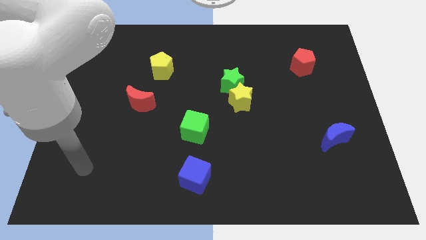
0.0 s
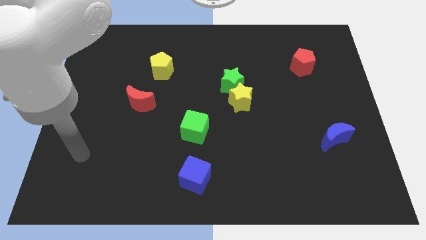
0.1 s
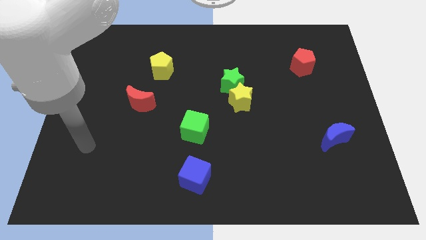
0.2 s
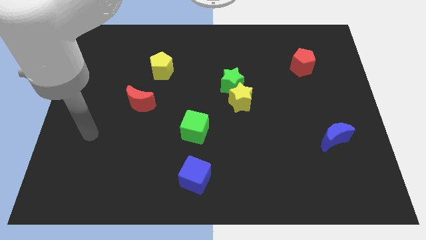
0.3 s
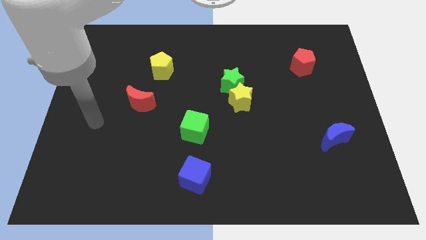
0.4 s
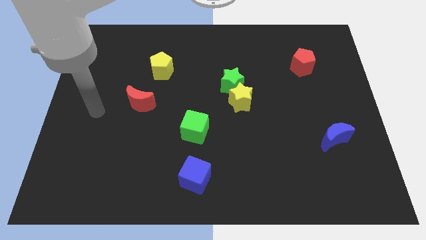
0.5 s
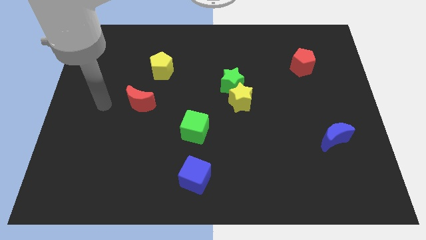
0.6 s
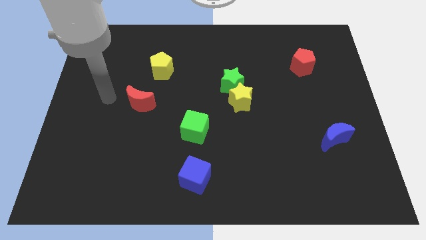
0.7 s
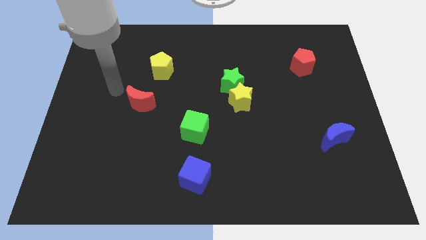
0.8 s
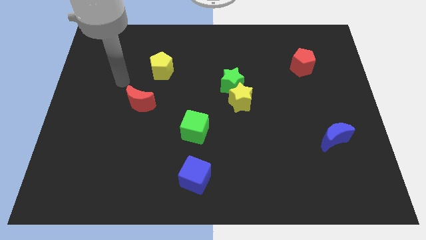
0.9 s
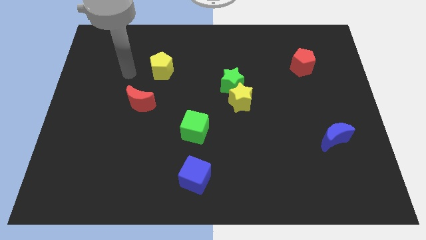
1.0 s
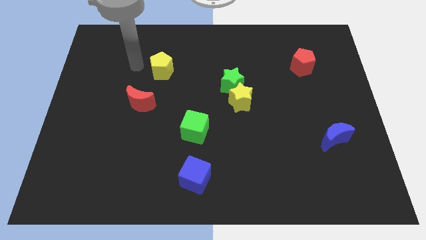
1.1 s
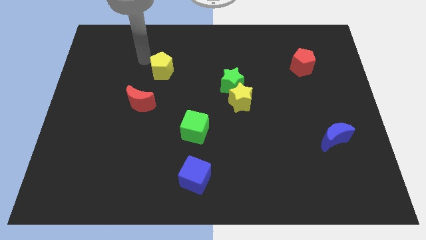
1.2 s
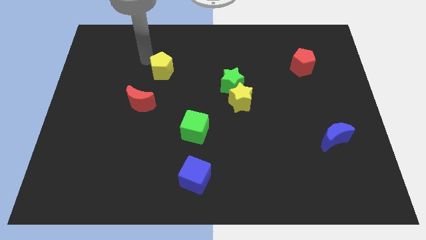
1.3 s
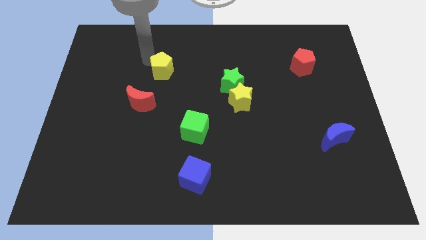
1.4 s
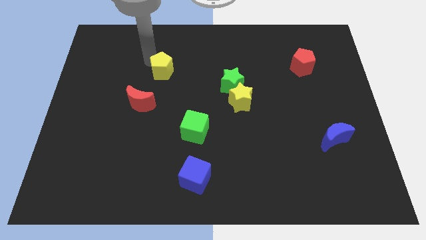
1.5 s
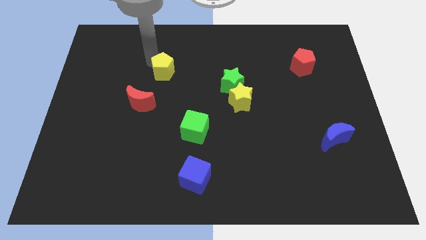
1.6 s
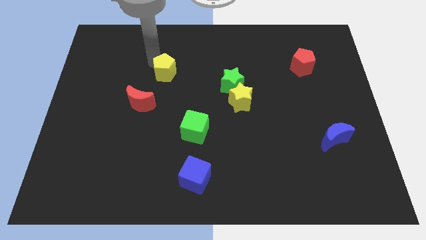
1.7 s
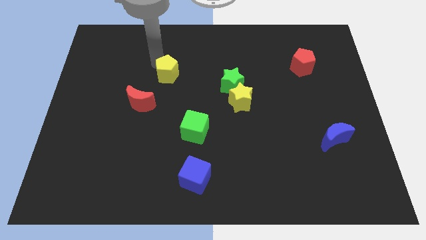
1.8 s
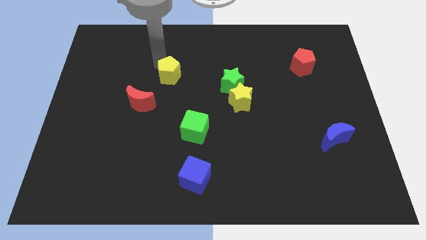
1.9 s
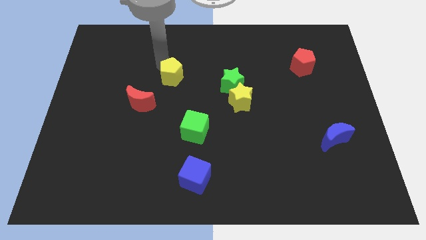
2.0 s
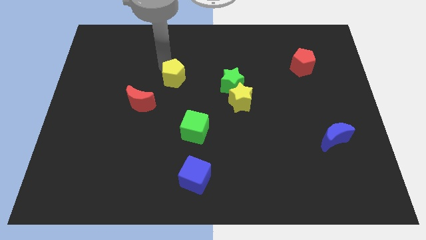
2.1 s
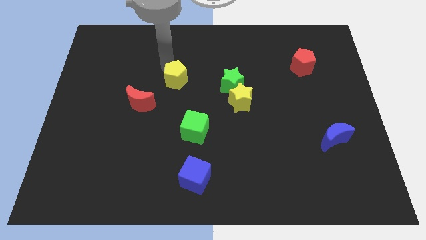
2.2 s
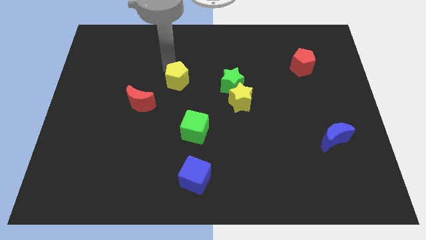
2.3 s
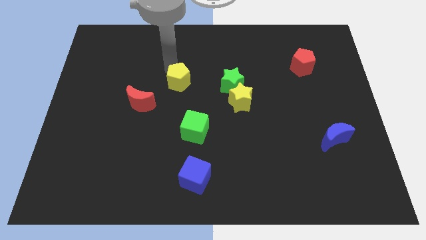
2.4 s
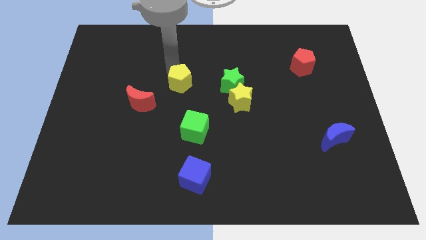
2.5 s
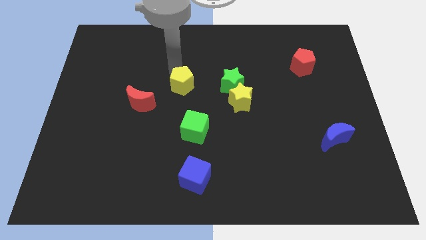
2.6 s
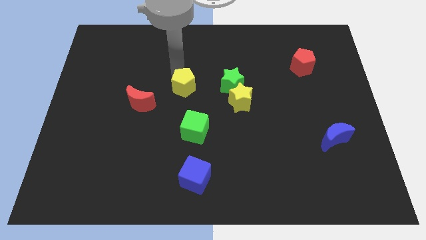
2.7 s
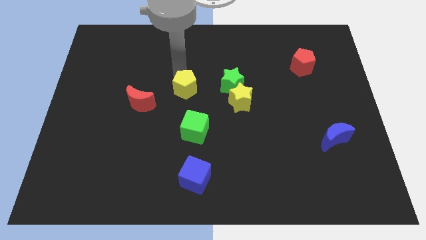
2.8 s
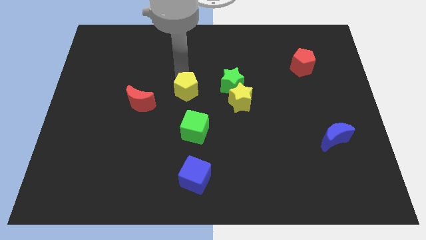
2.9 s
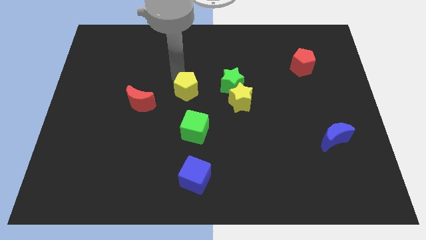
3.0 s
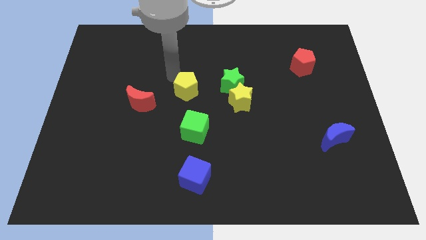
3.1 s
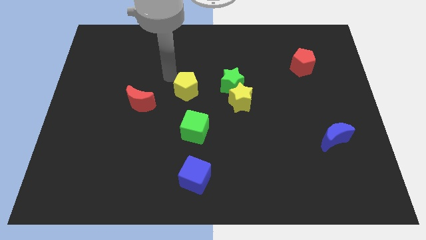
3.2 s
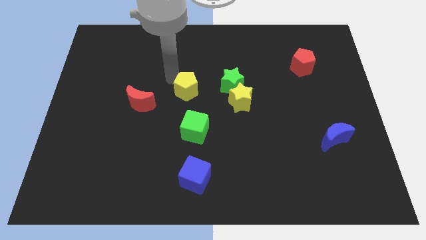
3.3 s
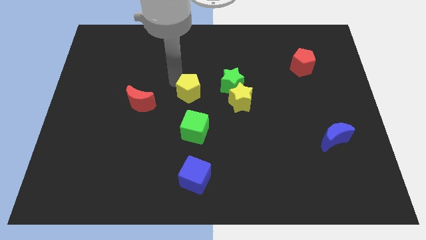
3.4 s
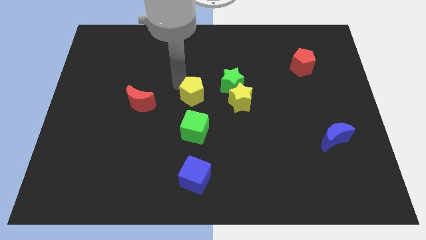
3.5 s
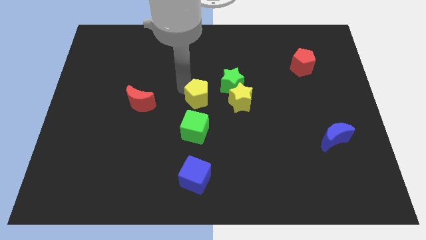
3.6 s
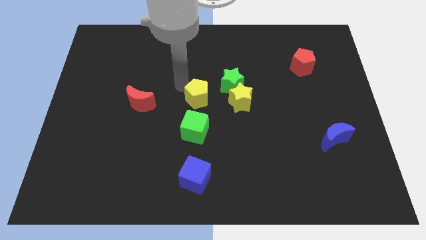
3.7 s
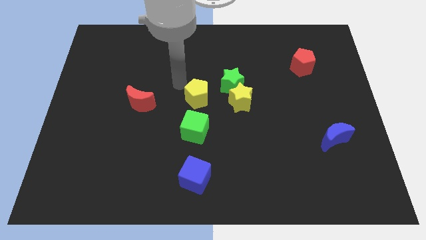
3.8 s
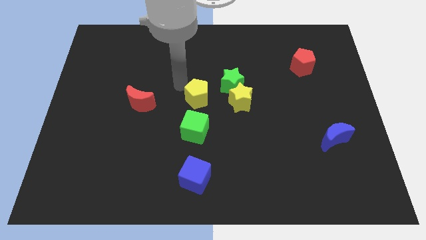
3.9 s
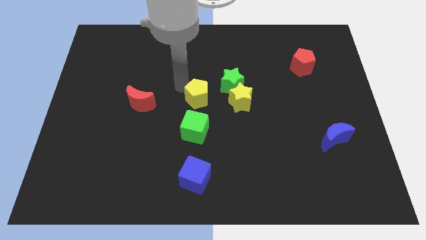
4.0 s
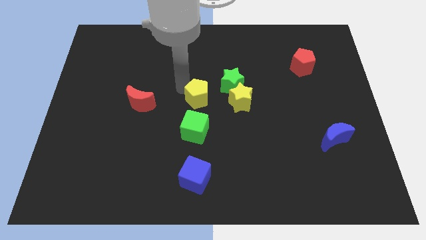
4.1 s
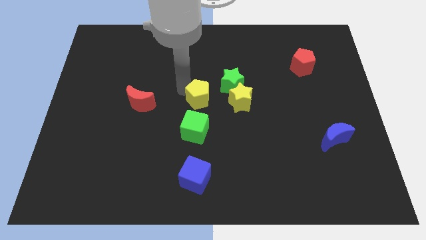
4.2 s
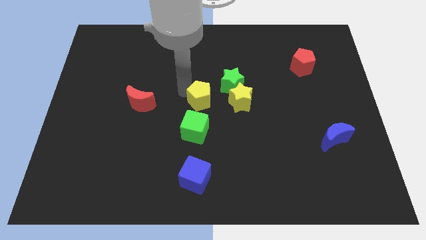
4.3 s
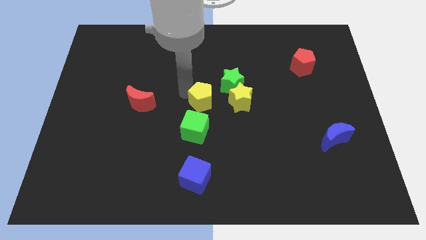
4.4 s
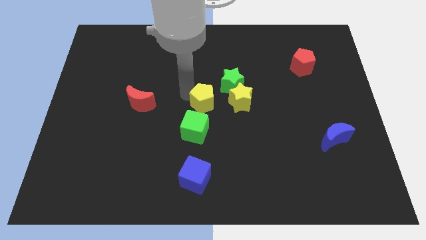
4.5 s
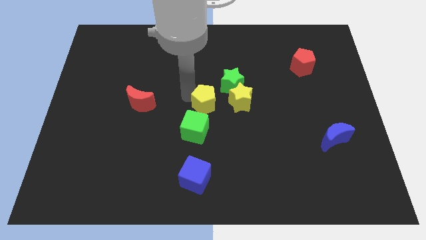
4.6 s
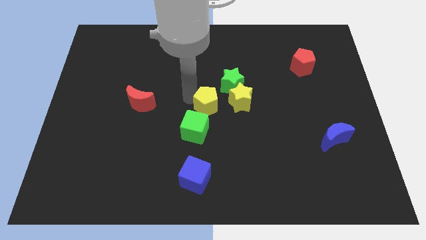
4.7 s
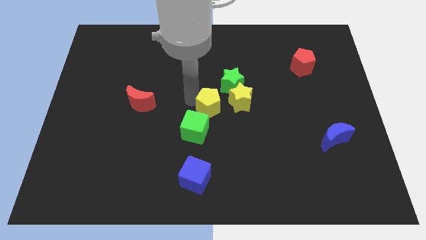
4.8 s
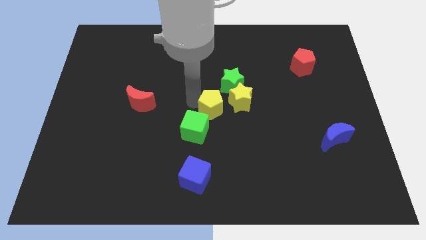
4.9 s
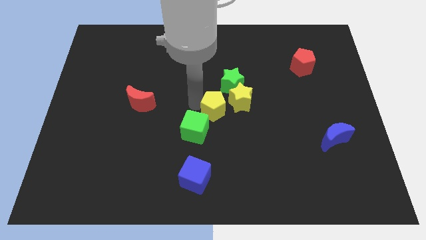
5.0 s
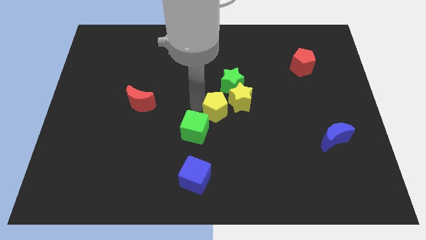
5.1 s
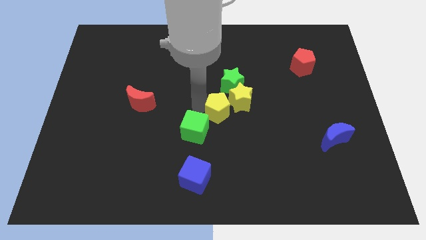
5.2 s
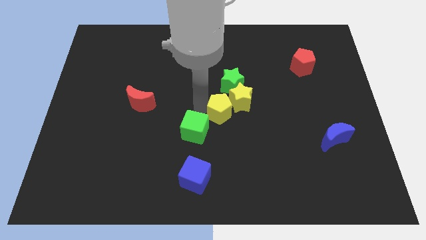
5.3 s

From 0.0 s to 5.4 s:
slide the yellow pentagon to the right side of the green cube
